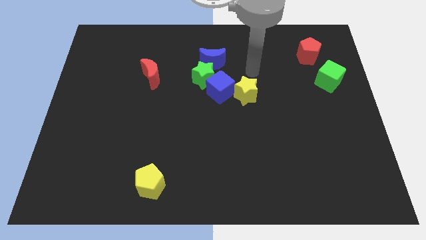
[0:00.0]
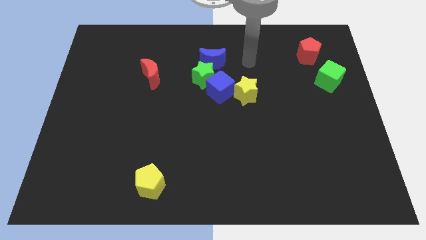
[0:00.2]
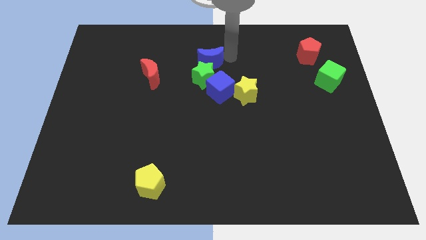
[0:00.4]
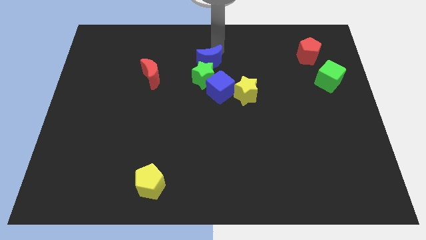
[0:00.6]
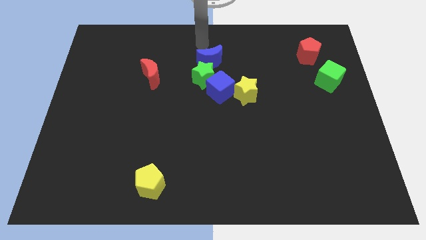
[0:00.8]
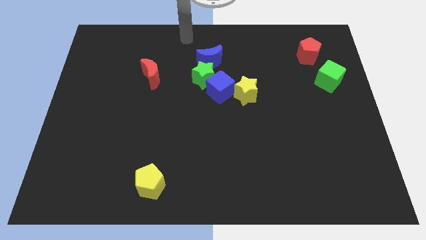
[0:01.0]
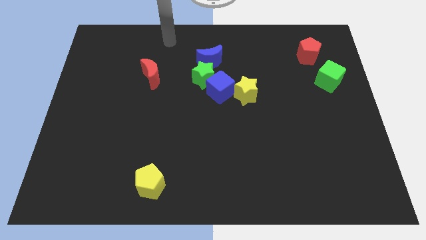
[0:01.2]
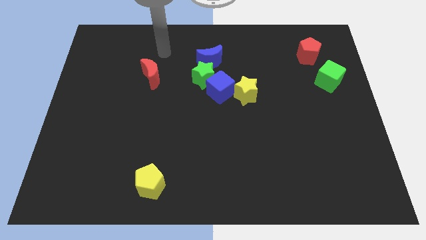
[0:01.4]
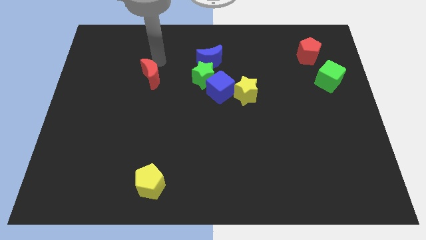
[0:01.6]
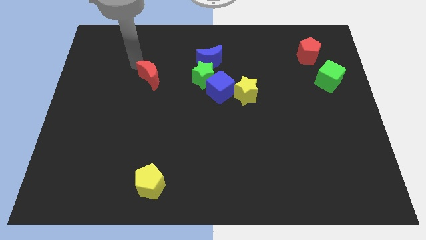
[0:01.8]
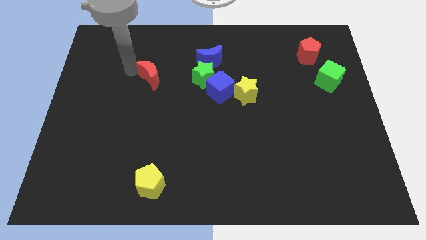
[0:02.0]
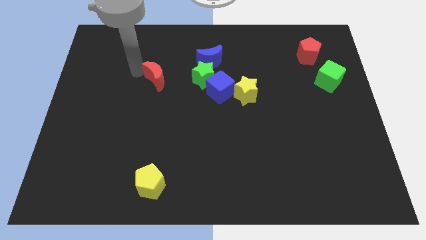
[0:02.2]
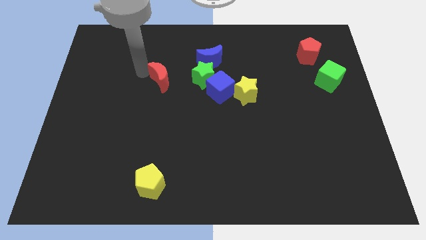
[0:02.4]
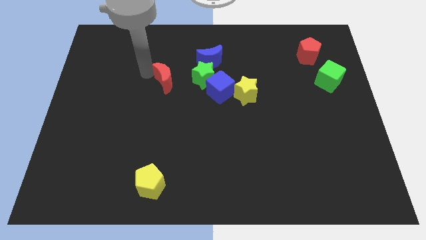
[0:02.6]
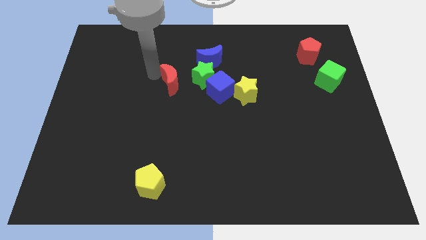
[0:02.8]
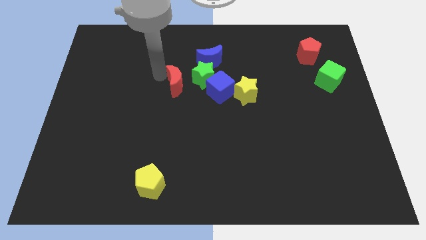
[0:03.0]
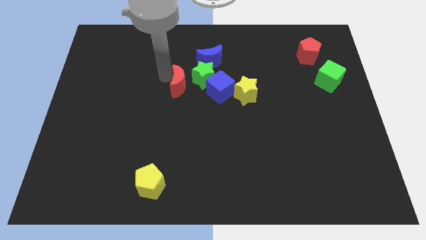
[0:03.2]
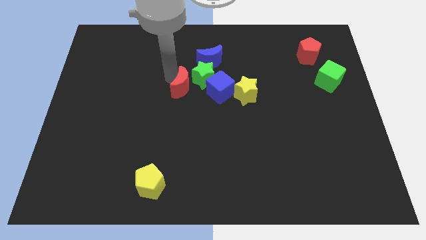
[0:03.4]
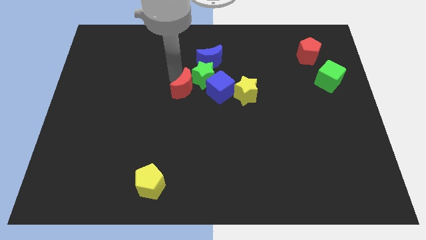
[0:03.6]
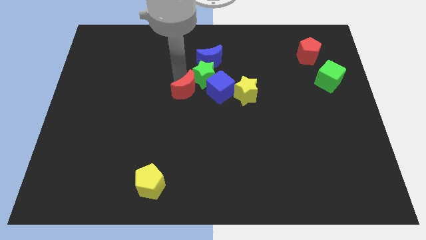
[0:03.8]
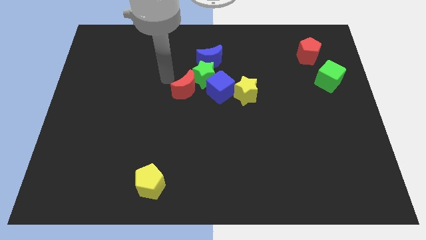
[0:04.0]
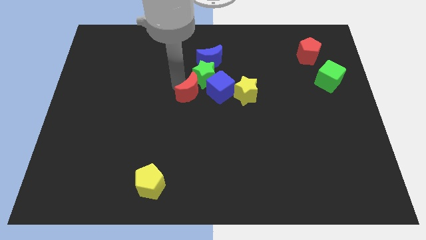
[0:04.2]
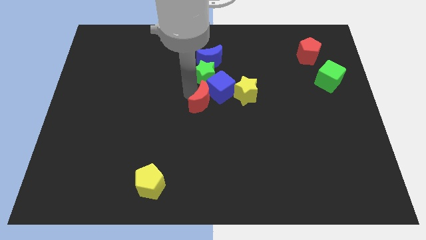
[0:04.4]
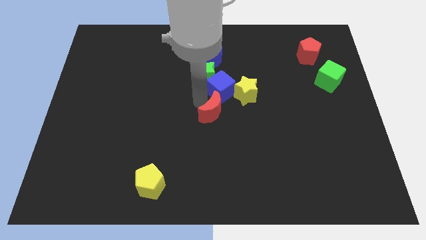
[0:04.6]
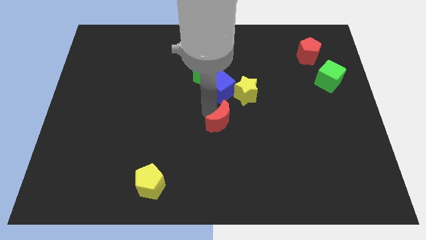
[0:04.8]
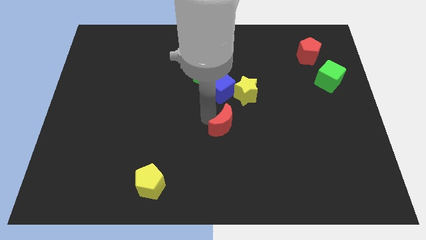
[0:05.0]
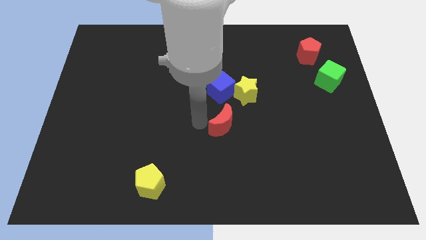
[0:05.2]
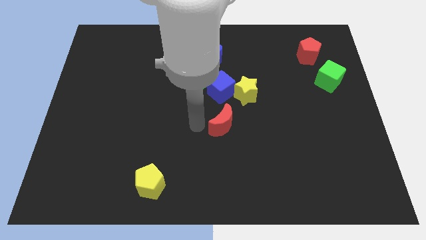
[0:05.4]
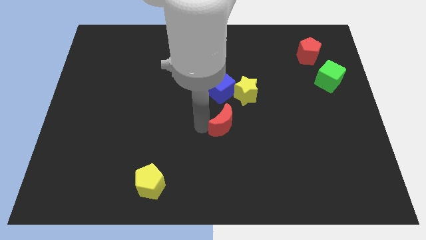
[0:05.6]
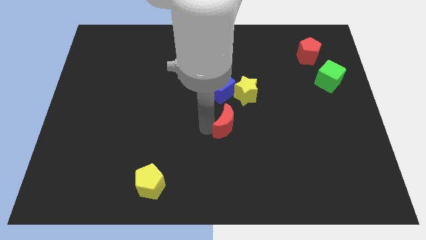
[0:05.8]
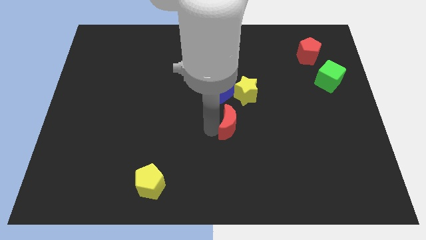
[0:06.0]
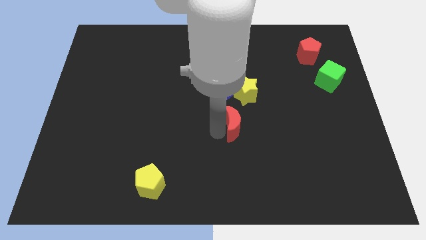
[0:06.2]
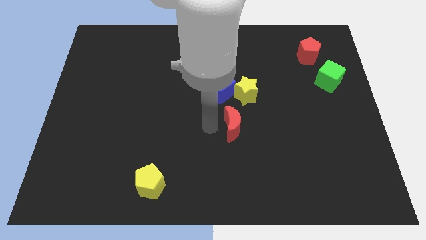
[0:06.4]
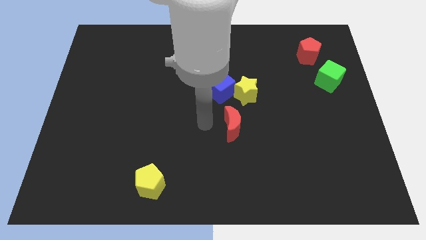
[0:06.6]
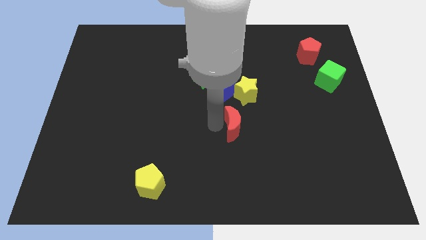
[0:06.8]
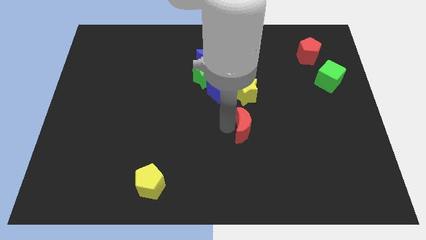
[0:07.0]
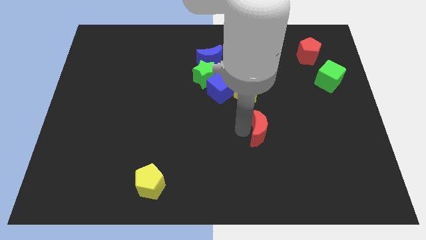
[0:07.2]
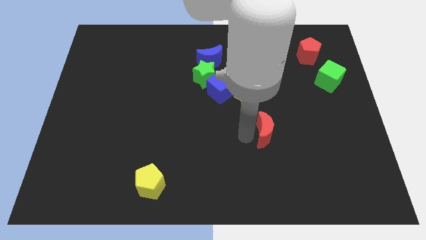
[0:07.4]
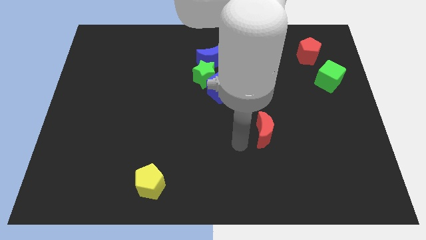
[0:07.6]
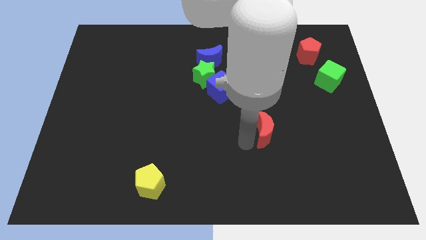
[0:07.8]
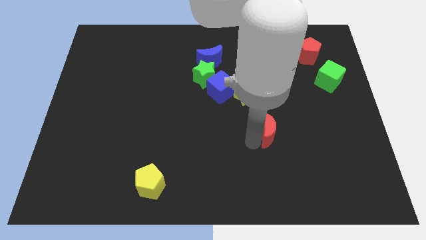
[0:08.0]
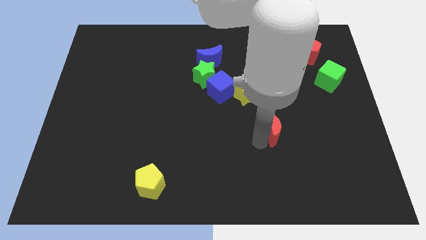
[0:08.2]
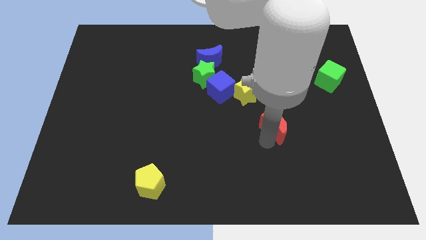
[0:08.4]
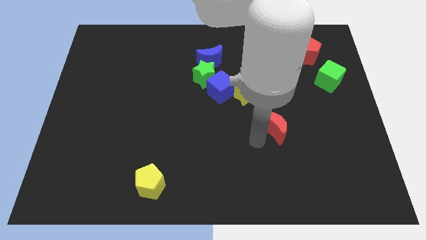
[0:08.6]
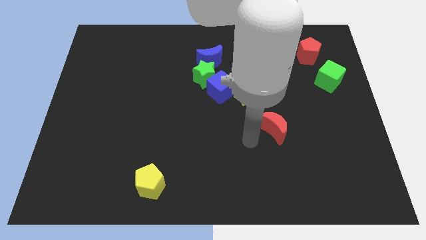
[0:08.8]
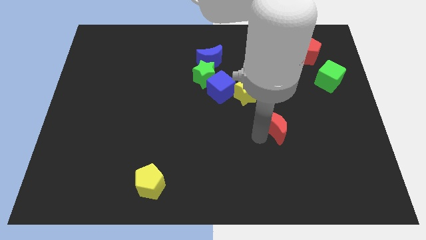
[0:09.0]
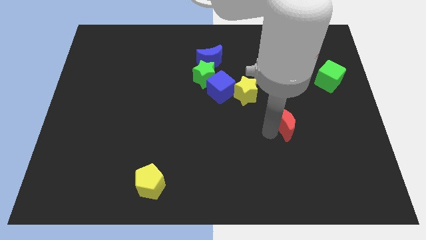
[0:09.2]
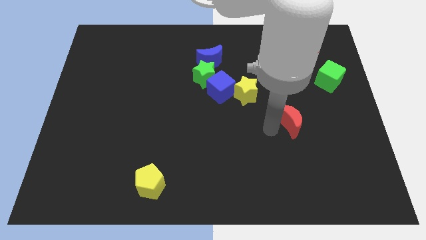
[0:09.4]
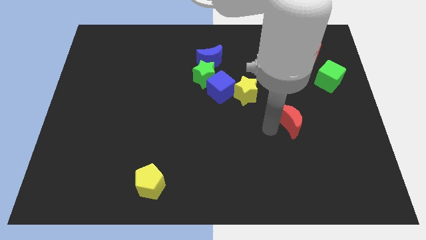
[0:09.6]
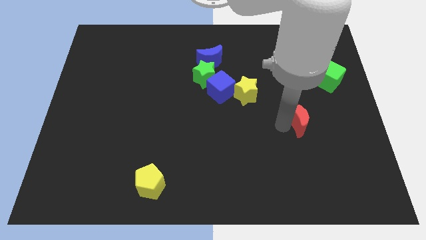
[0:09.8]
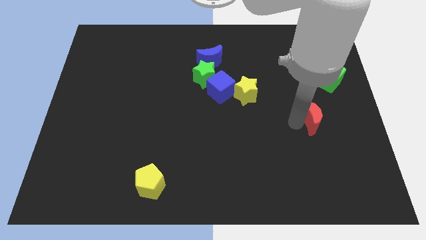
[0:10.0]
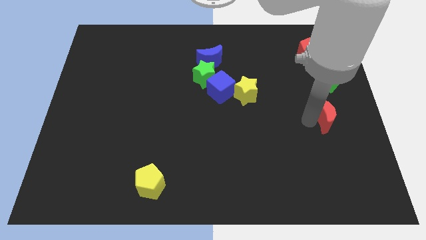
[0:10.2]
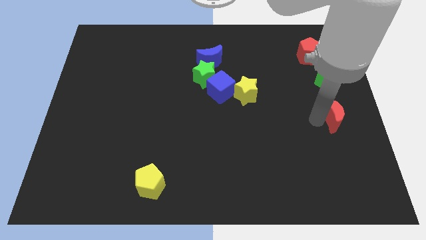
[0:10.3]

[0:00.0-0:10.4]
push the red moon to the right side of the board
